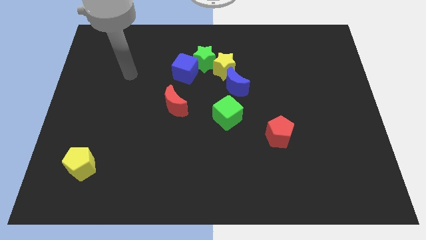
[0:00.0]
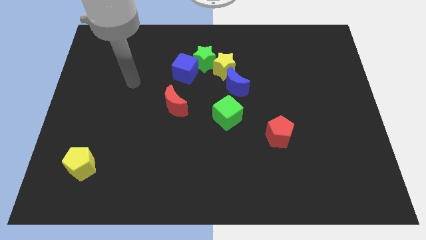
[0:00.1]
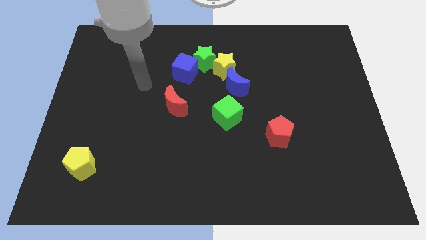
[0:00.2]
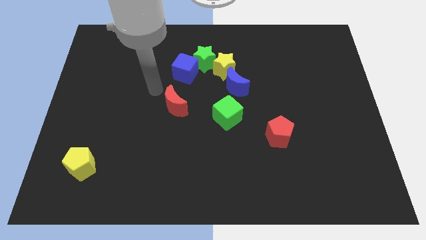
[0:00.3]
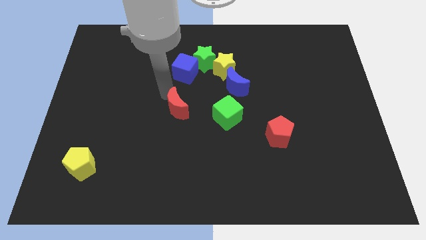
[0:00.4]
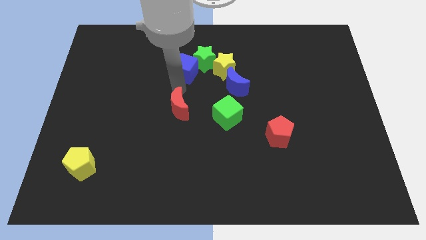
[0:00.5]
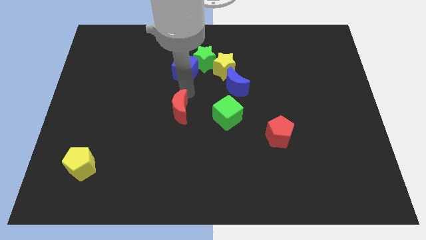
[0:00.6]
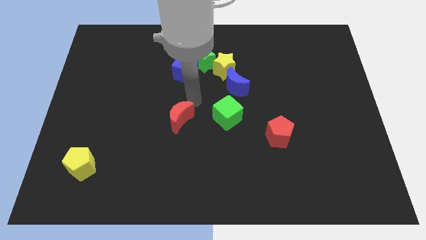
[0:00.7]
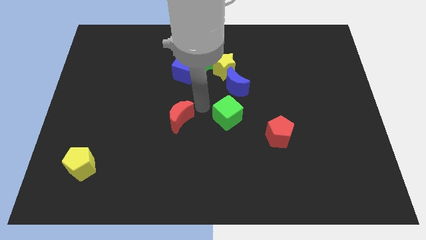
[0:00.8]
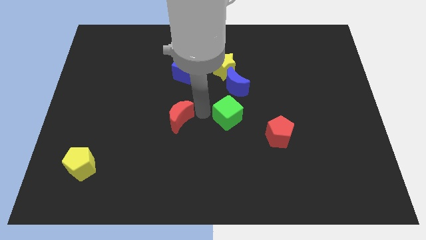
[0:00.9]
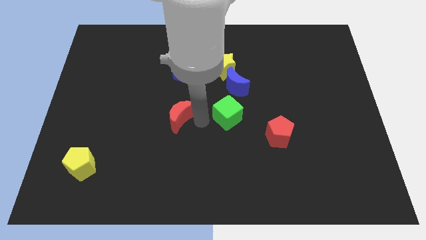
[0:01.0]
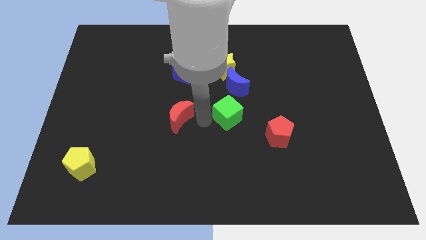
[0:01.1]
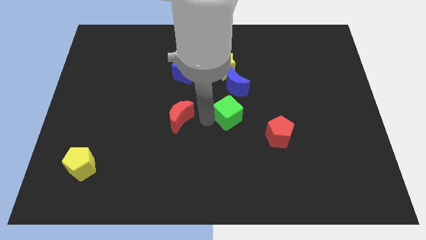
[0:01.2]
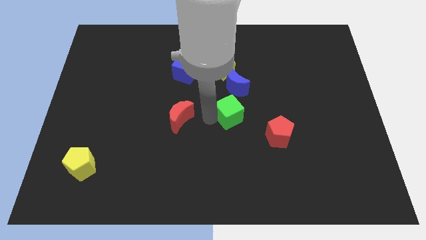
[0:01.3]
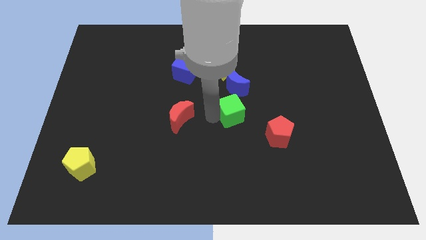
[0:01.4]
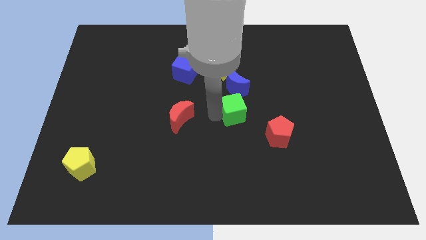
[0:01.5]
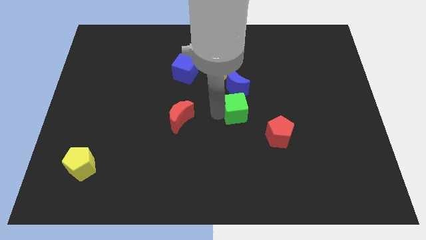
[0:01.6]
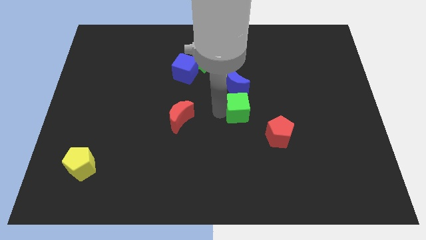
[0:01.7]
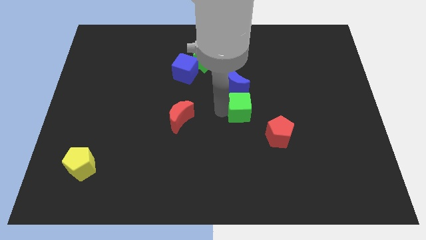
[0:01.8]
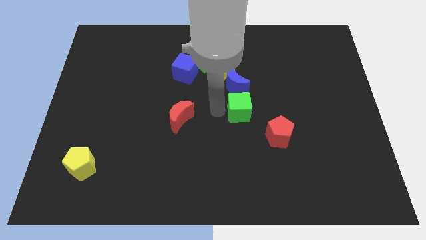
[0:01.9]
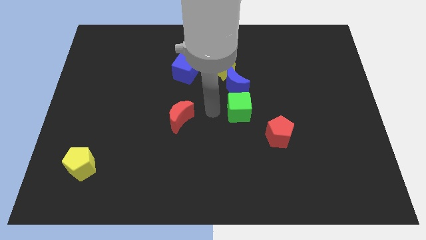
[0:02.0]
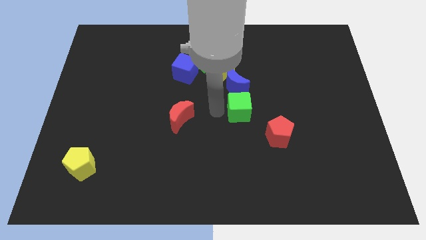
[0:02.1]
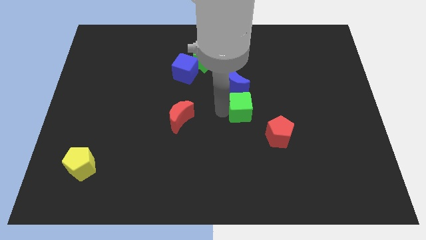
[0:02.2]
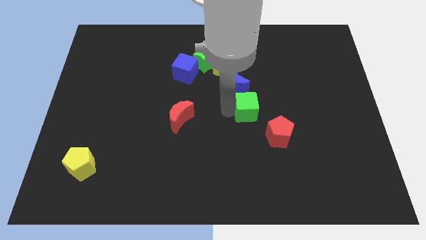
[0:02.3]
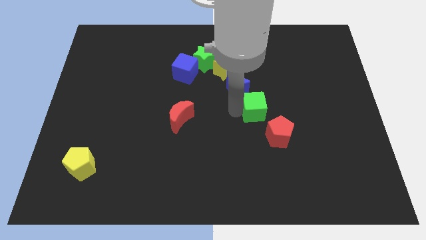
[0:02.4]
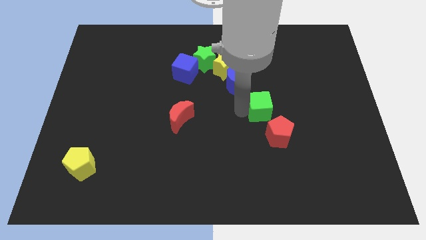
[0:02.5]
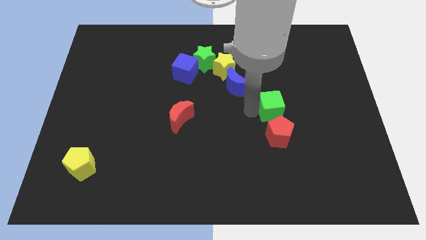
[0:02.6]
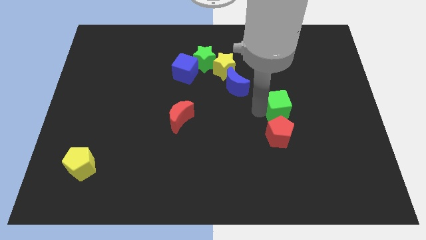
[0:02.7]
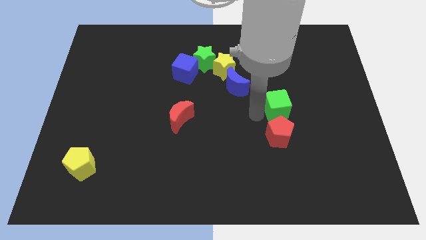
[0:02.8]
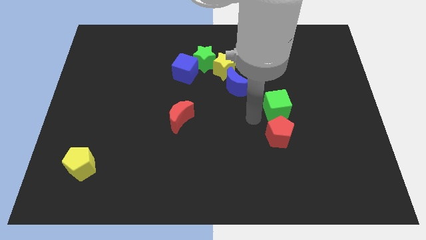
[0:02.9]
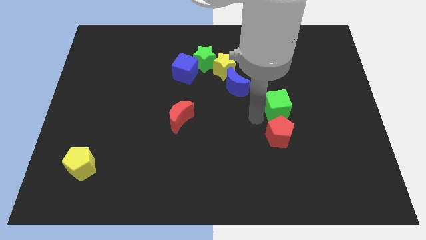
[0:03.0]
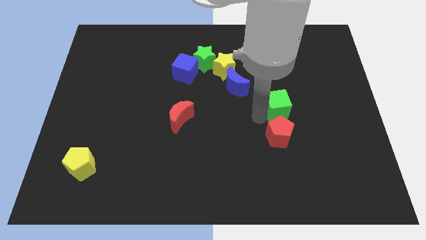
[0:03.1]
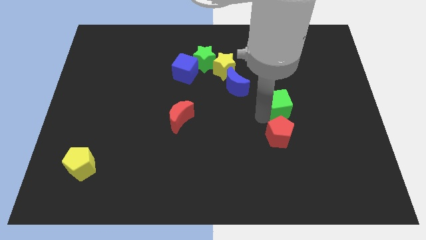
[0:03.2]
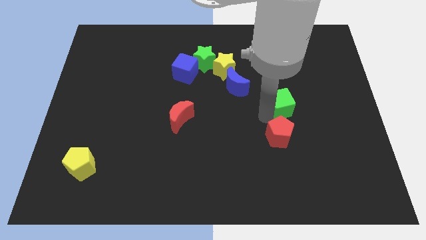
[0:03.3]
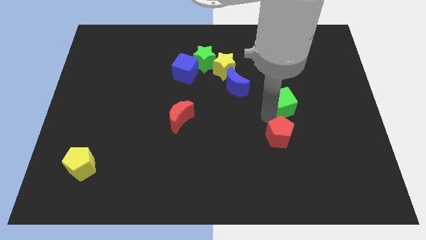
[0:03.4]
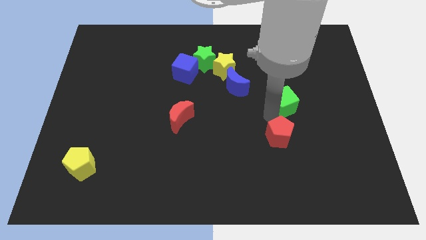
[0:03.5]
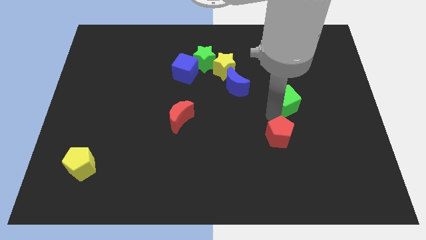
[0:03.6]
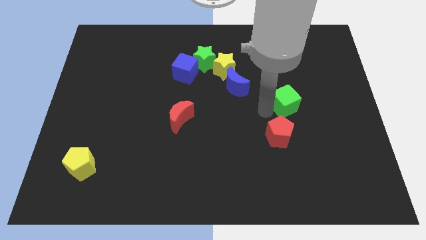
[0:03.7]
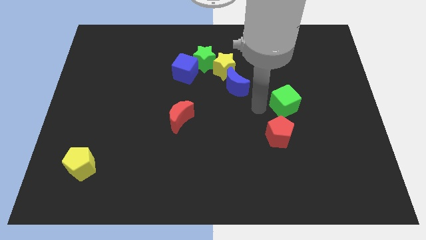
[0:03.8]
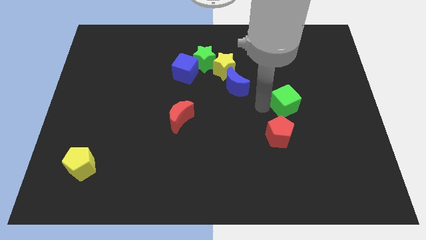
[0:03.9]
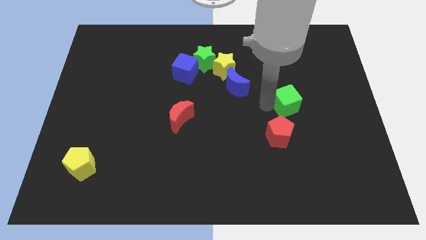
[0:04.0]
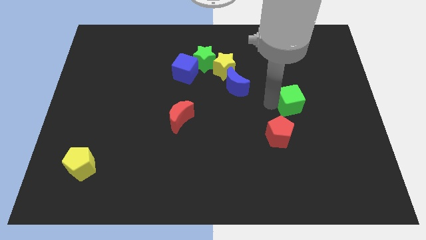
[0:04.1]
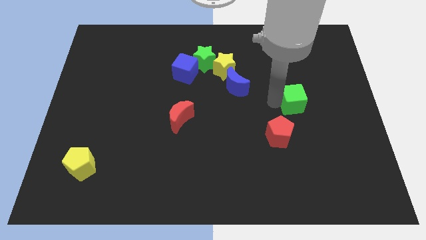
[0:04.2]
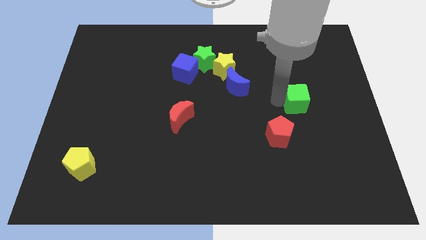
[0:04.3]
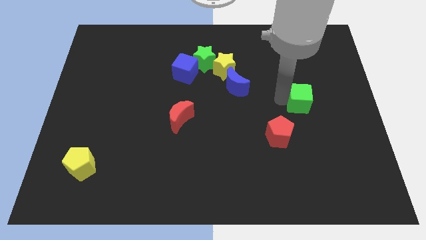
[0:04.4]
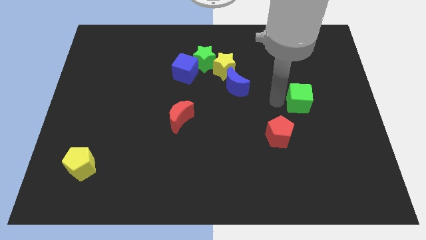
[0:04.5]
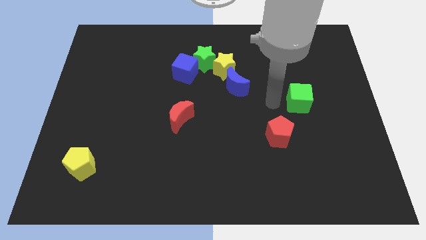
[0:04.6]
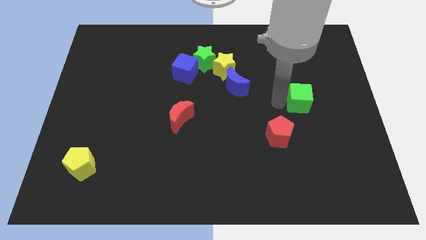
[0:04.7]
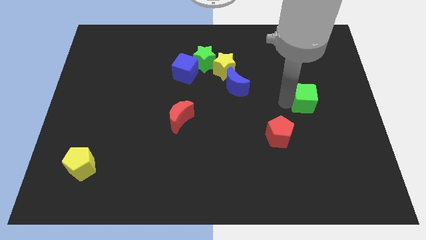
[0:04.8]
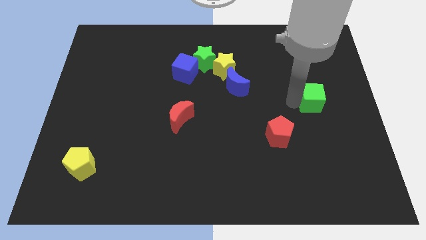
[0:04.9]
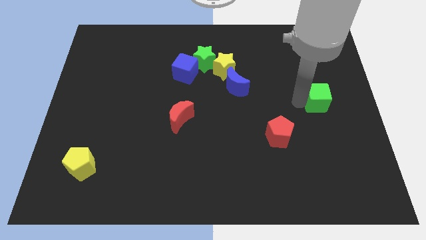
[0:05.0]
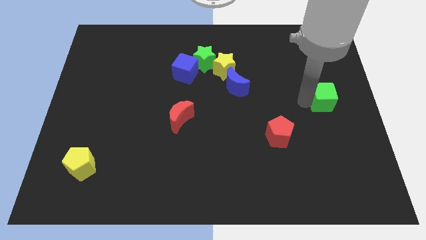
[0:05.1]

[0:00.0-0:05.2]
put the green cube to the right side

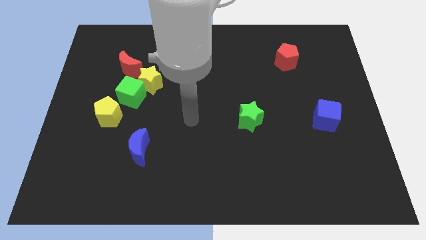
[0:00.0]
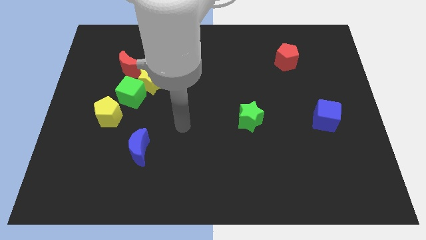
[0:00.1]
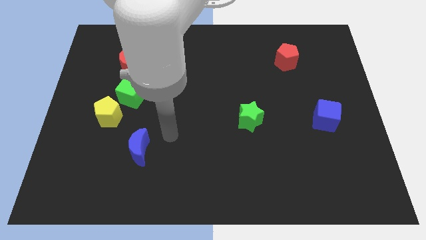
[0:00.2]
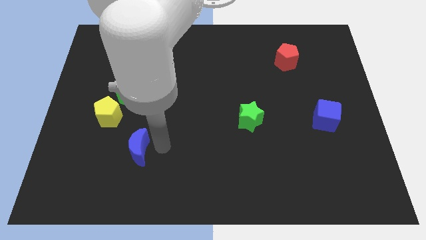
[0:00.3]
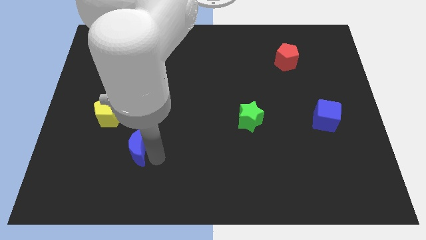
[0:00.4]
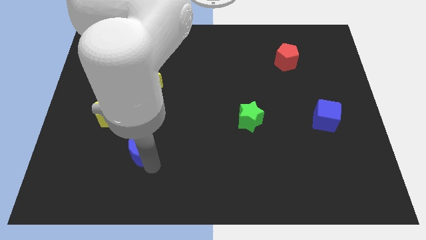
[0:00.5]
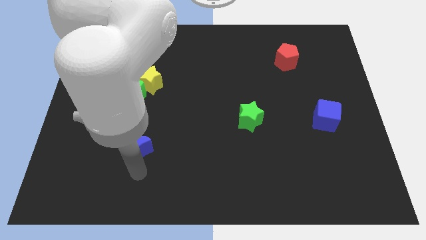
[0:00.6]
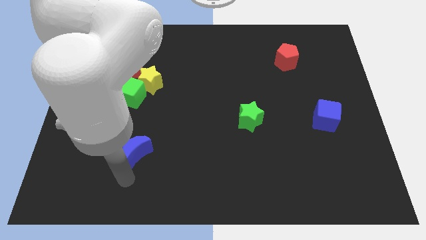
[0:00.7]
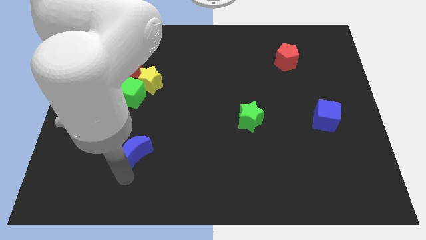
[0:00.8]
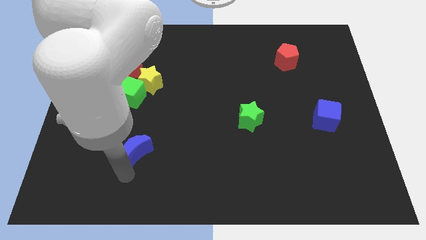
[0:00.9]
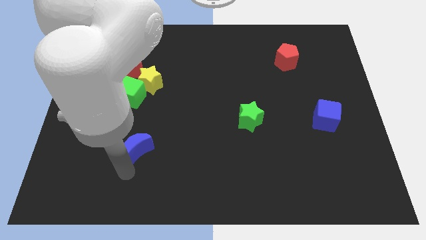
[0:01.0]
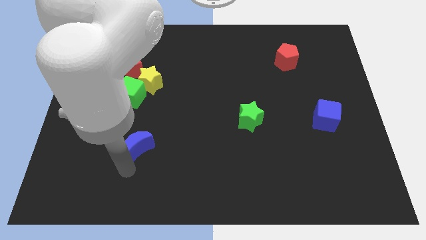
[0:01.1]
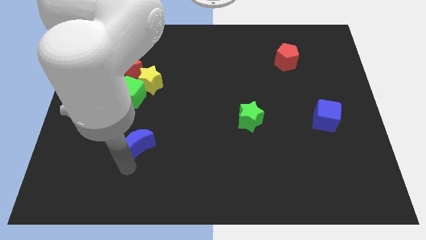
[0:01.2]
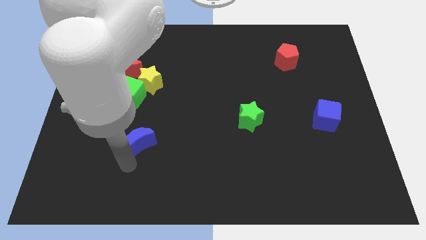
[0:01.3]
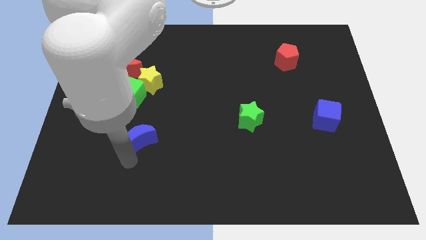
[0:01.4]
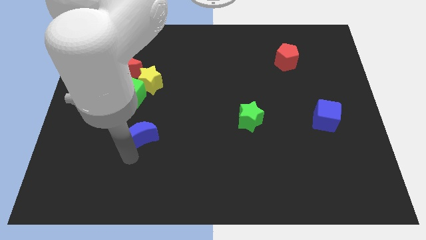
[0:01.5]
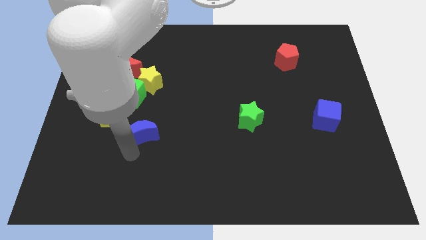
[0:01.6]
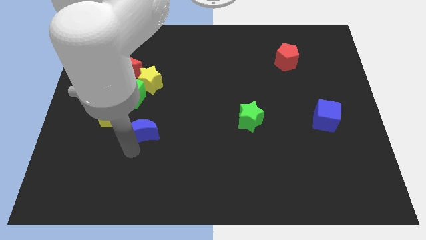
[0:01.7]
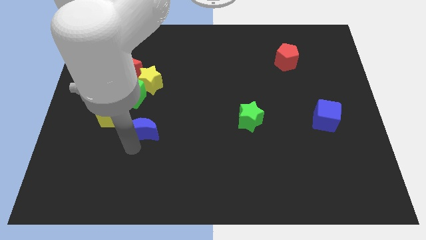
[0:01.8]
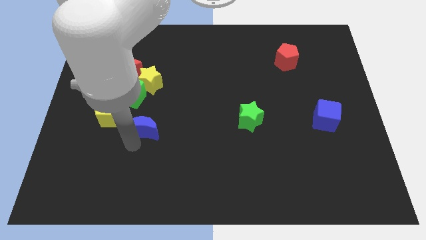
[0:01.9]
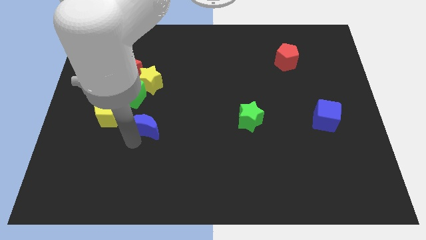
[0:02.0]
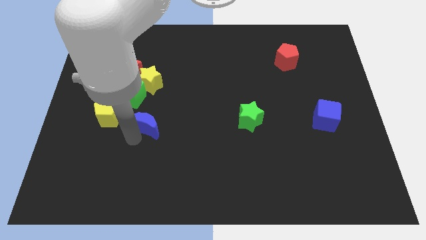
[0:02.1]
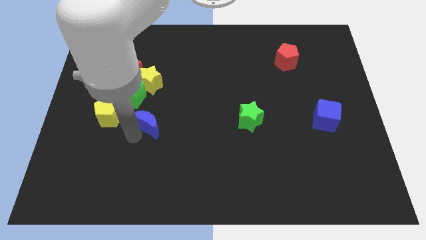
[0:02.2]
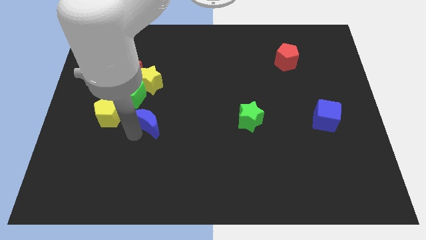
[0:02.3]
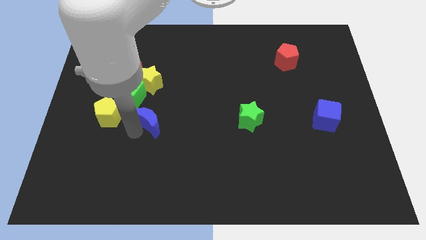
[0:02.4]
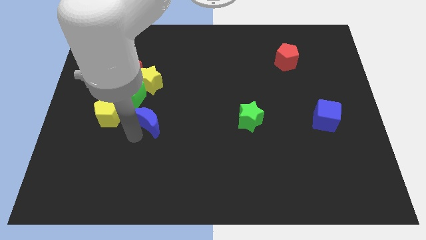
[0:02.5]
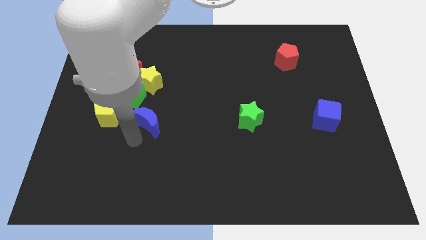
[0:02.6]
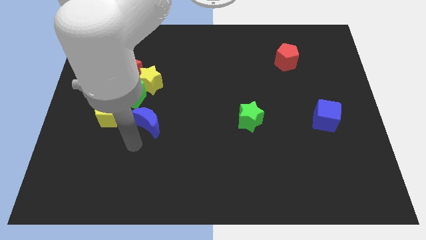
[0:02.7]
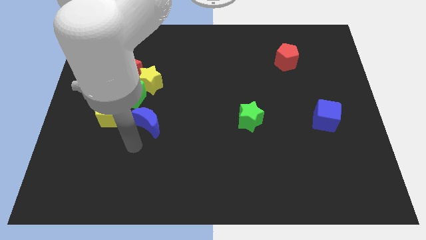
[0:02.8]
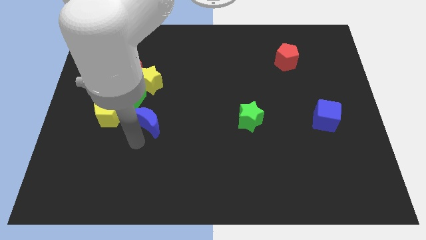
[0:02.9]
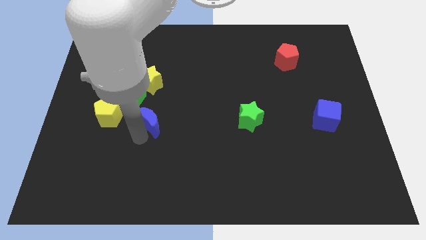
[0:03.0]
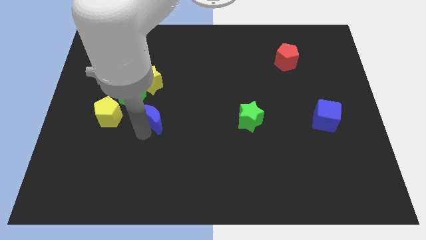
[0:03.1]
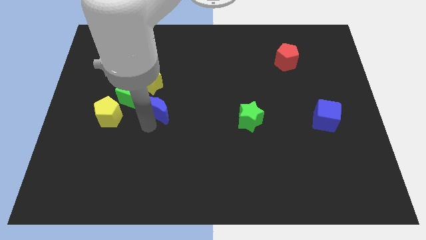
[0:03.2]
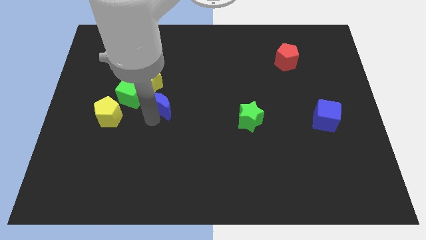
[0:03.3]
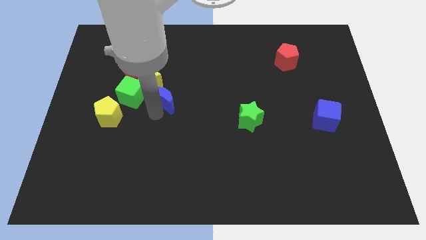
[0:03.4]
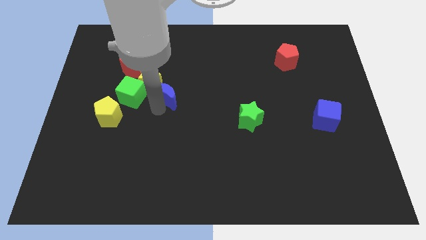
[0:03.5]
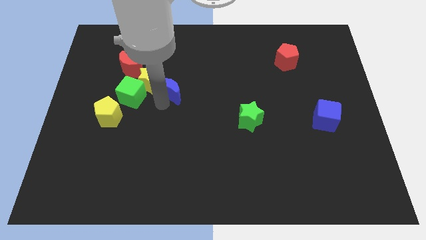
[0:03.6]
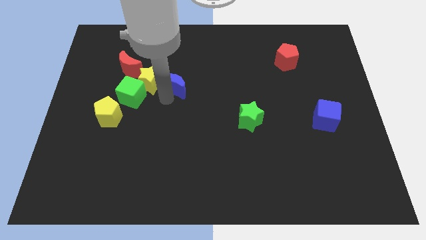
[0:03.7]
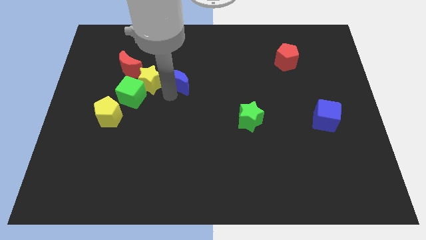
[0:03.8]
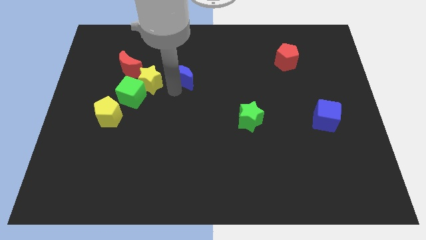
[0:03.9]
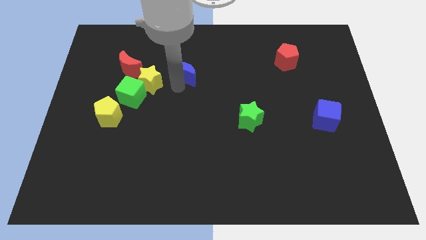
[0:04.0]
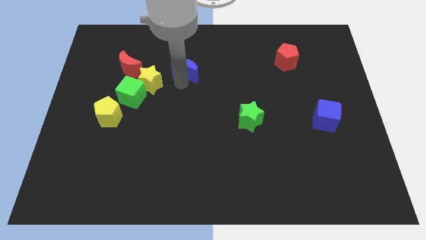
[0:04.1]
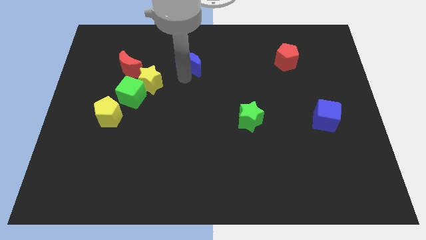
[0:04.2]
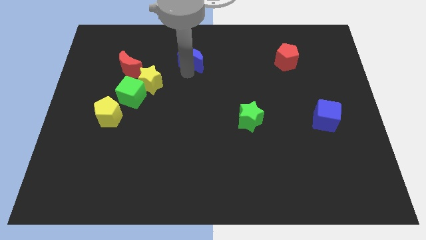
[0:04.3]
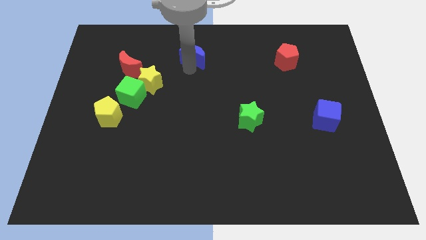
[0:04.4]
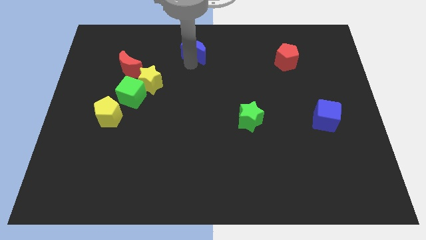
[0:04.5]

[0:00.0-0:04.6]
put the blue moon to the top side
